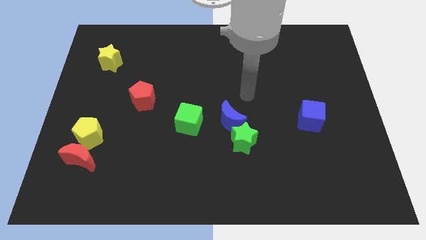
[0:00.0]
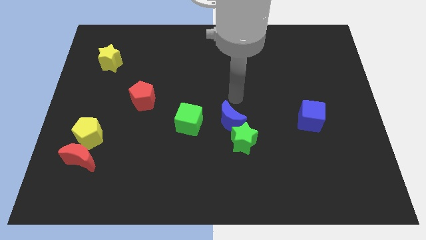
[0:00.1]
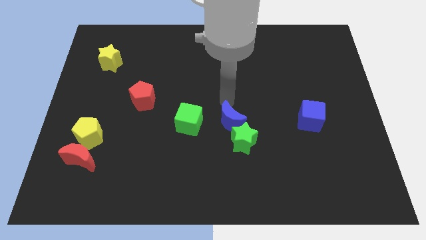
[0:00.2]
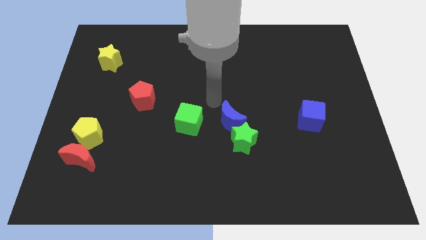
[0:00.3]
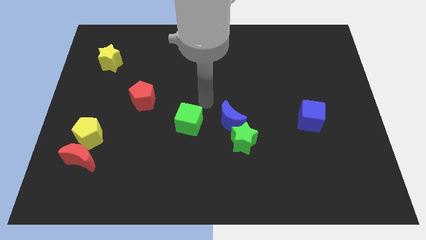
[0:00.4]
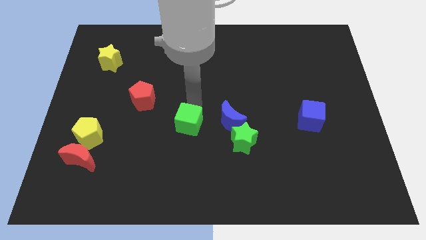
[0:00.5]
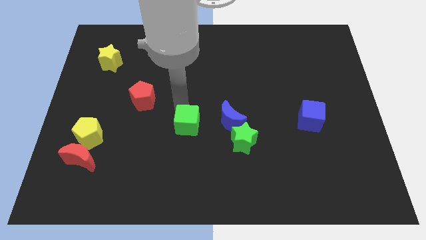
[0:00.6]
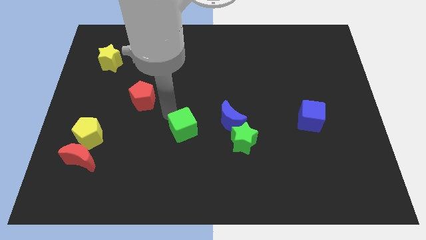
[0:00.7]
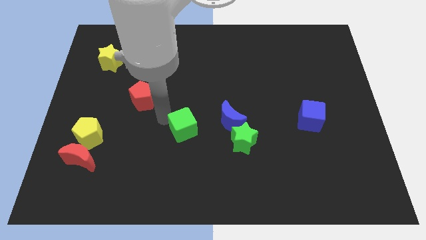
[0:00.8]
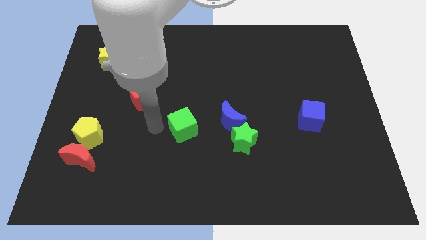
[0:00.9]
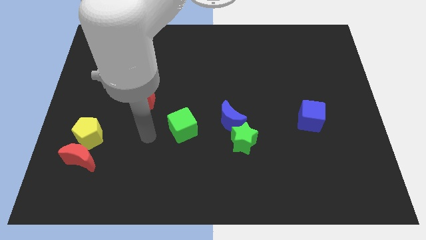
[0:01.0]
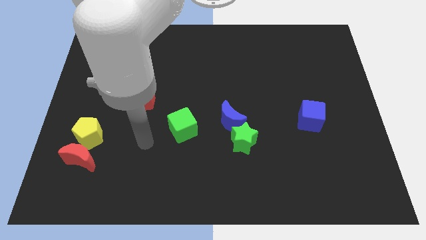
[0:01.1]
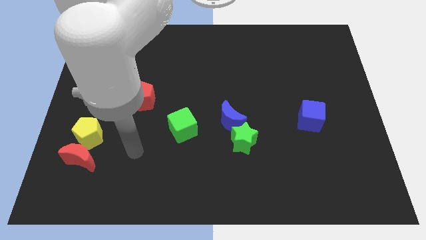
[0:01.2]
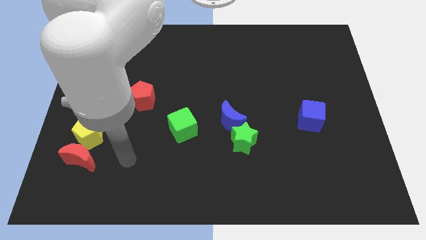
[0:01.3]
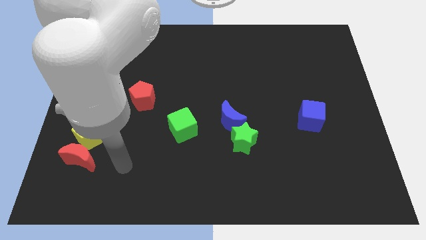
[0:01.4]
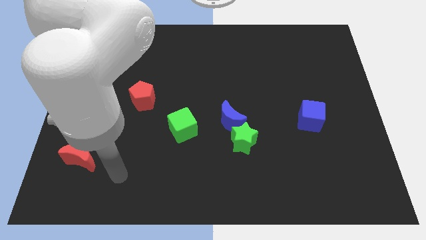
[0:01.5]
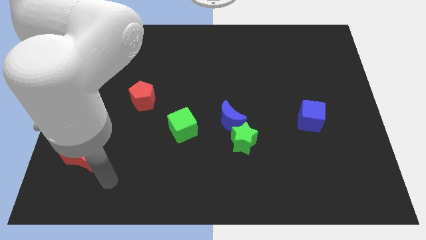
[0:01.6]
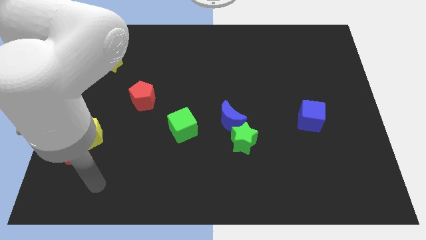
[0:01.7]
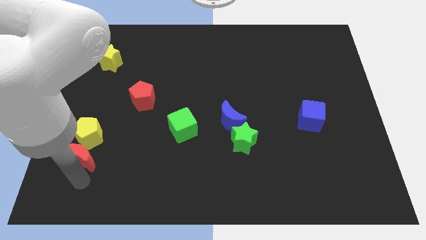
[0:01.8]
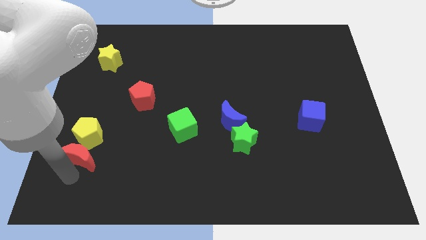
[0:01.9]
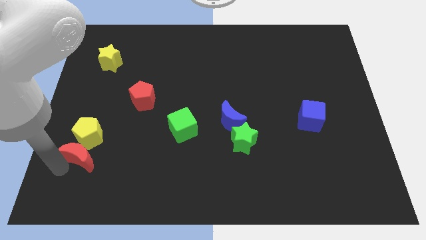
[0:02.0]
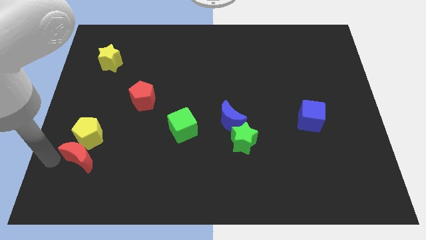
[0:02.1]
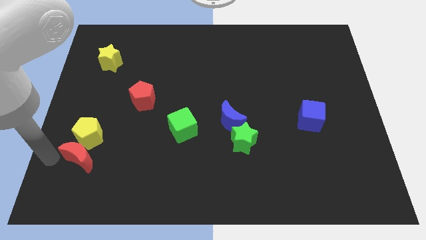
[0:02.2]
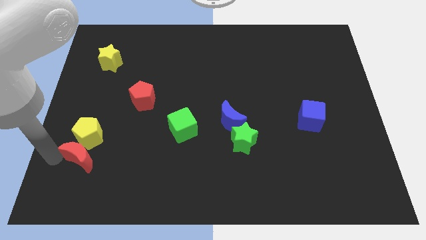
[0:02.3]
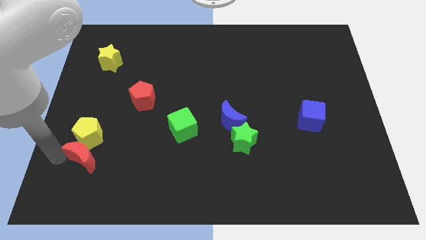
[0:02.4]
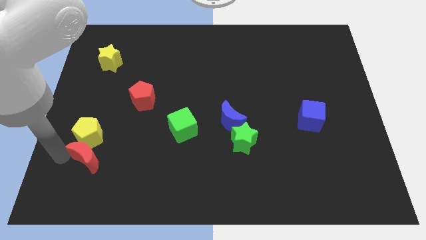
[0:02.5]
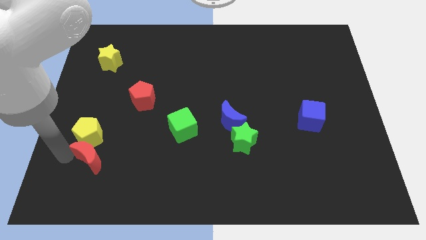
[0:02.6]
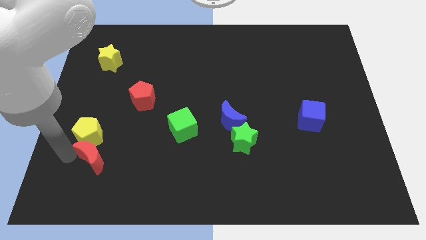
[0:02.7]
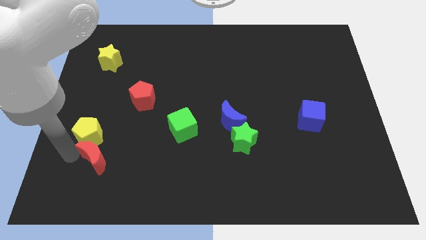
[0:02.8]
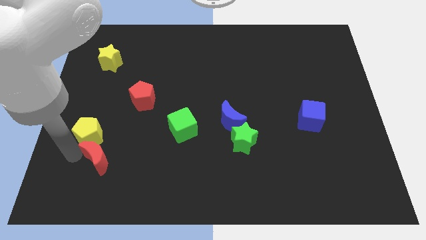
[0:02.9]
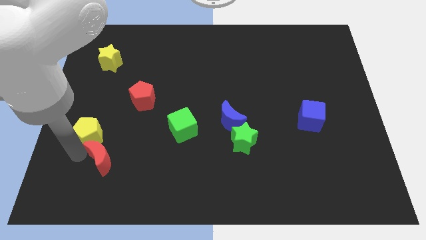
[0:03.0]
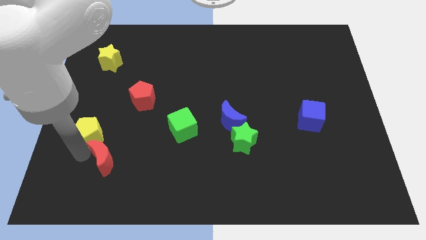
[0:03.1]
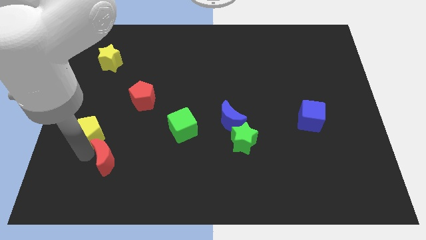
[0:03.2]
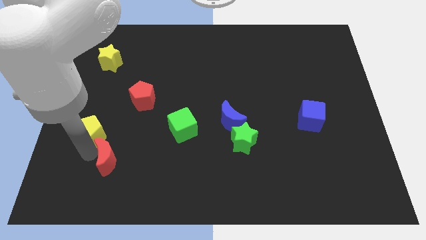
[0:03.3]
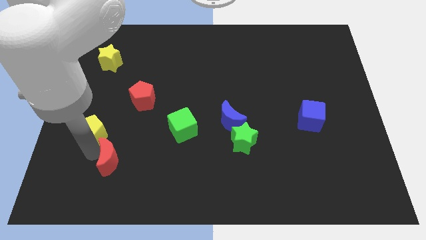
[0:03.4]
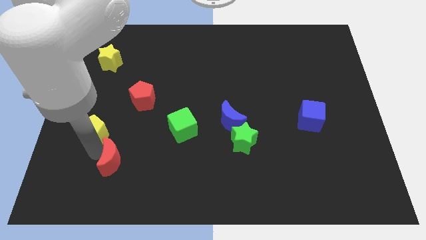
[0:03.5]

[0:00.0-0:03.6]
push the red moon somewhat right

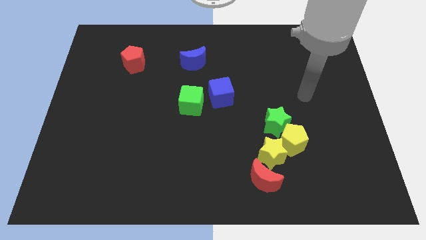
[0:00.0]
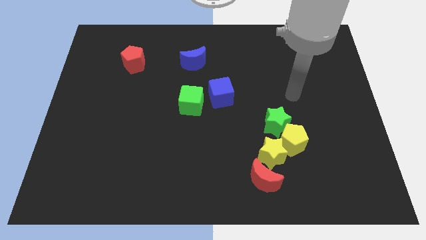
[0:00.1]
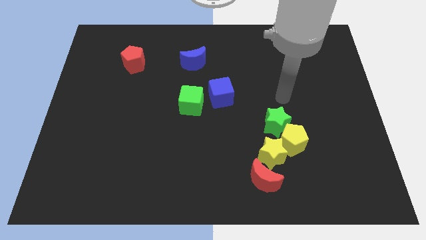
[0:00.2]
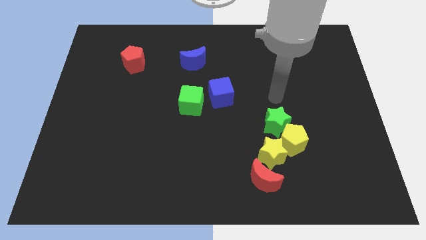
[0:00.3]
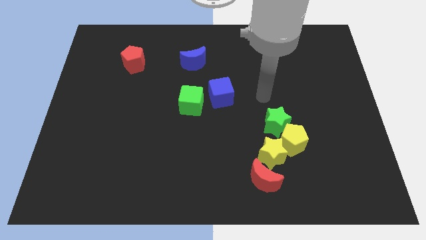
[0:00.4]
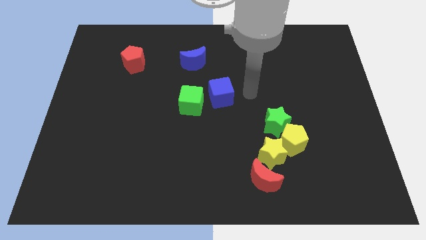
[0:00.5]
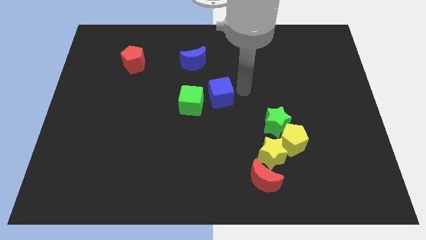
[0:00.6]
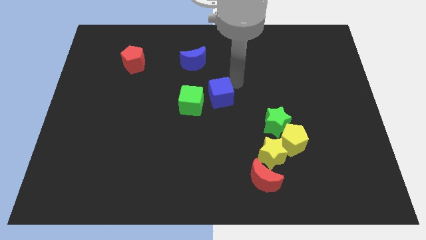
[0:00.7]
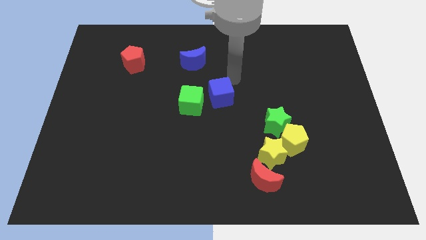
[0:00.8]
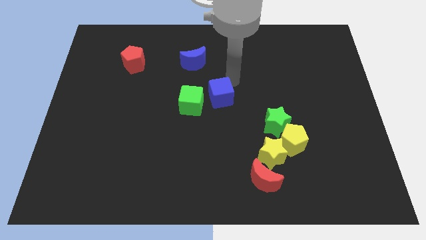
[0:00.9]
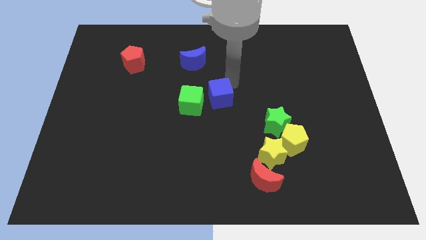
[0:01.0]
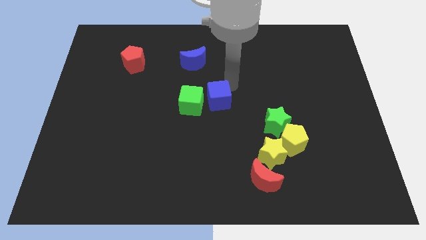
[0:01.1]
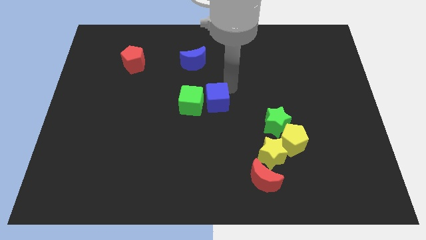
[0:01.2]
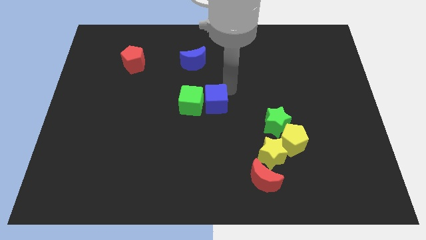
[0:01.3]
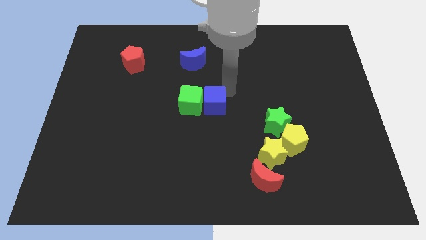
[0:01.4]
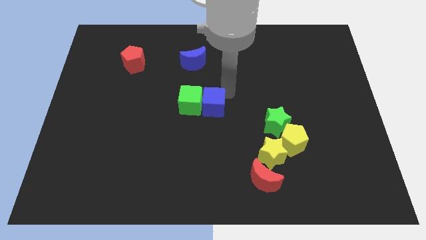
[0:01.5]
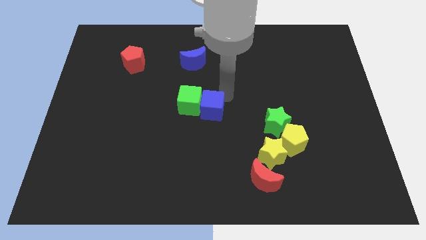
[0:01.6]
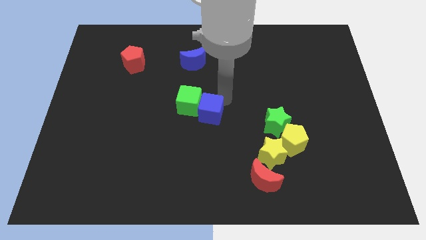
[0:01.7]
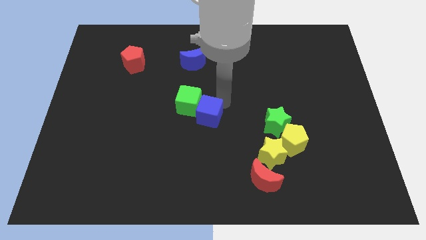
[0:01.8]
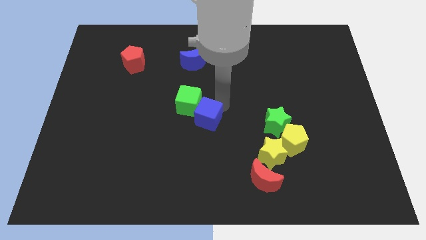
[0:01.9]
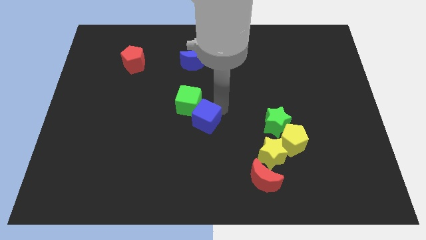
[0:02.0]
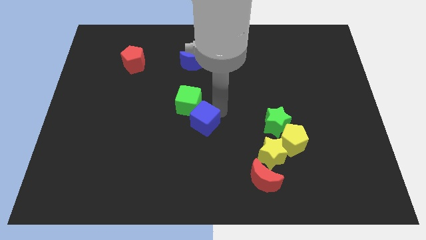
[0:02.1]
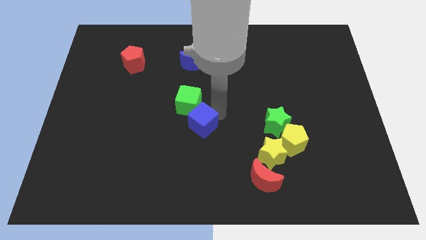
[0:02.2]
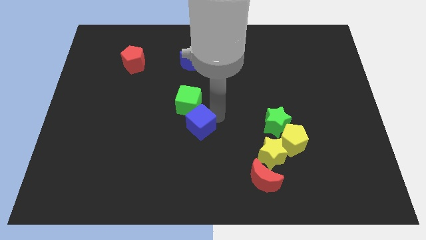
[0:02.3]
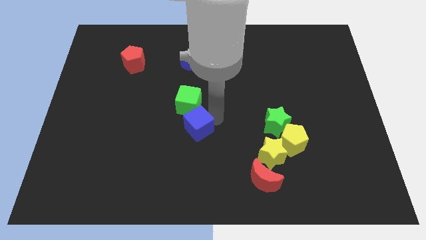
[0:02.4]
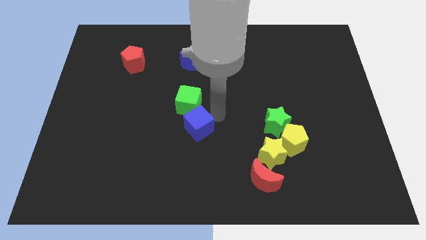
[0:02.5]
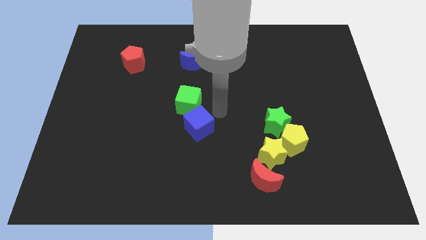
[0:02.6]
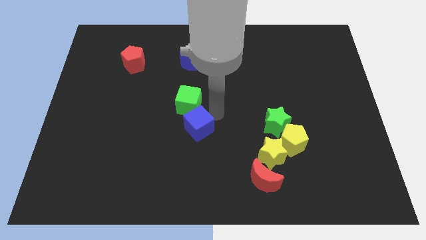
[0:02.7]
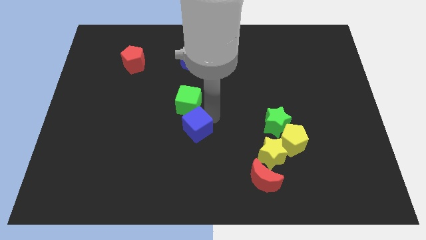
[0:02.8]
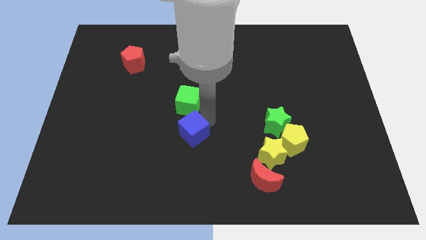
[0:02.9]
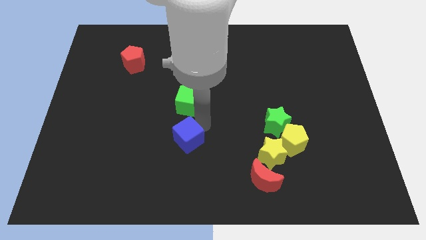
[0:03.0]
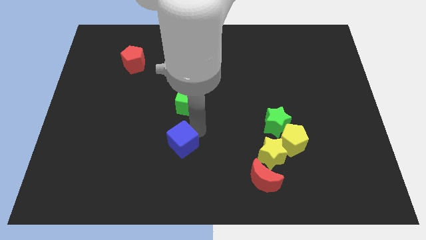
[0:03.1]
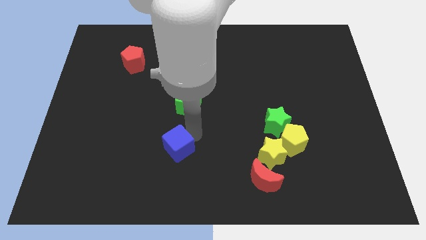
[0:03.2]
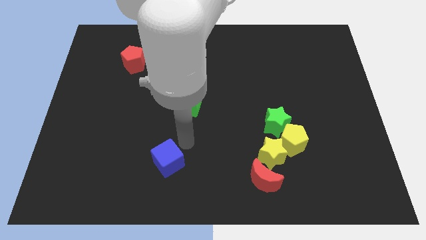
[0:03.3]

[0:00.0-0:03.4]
move the blue cube downwards and left diagonally

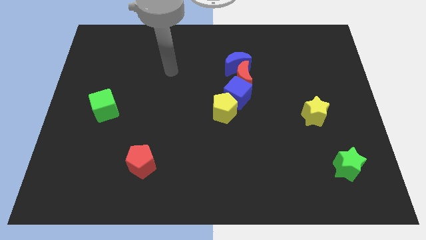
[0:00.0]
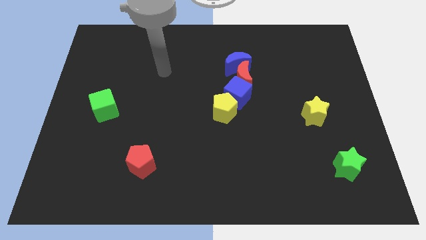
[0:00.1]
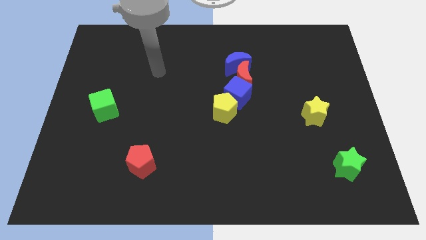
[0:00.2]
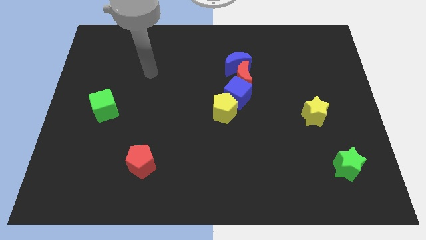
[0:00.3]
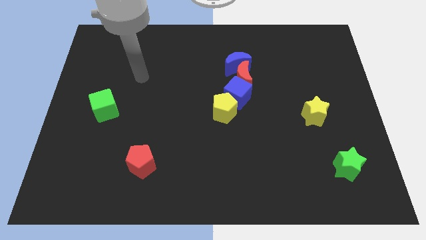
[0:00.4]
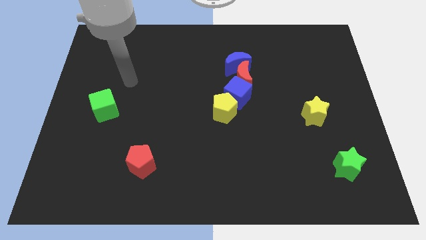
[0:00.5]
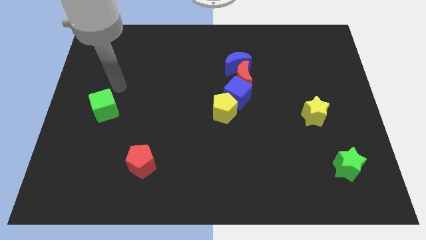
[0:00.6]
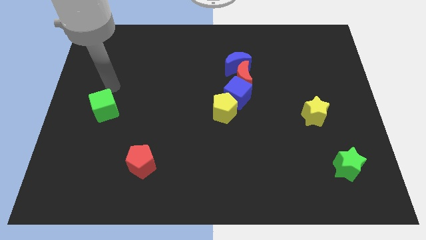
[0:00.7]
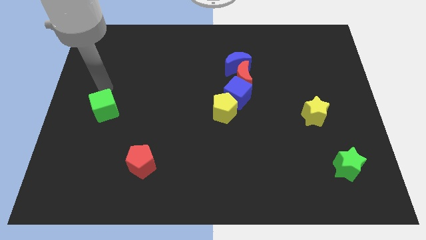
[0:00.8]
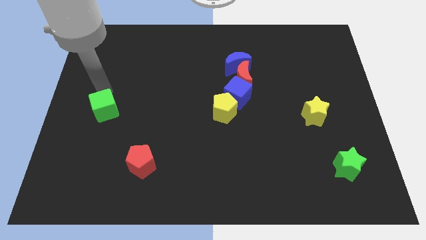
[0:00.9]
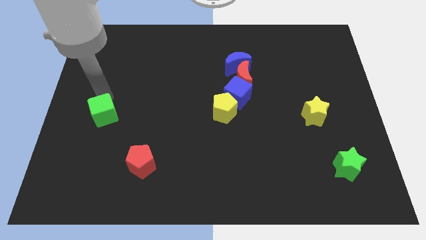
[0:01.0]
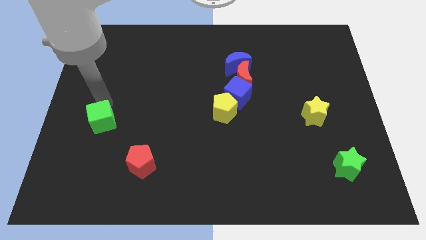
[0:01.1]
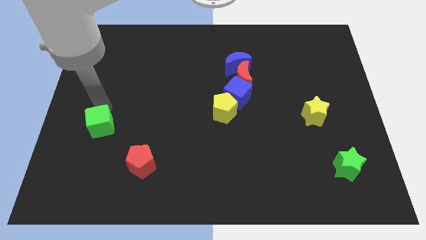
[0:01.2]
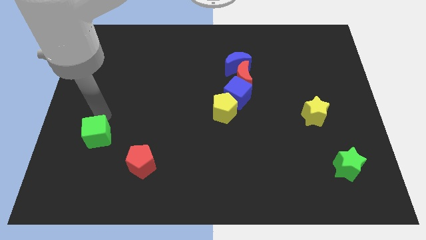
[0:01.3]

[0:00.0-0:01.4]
slide the green cube down a little bit
